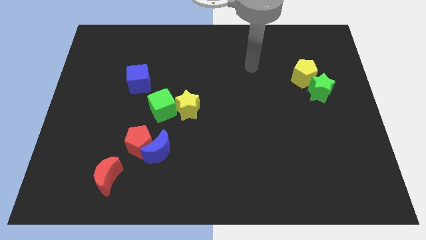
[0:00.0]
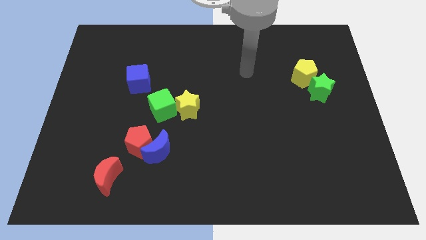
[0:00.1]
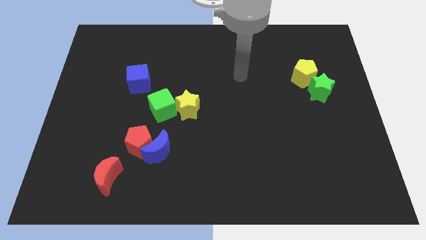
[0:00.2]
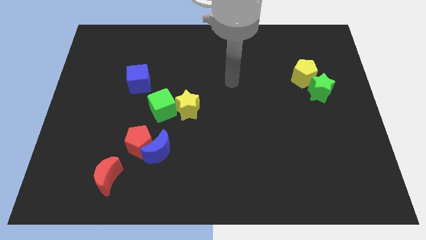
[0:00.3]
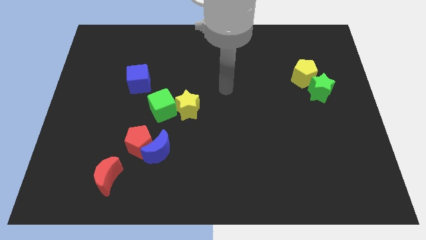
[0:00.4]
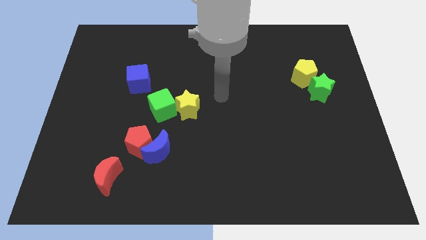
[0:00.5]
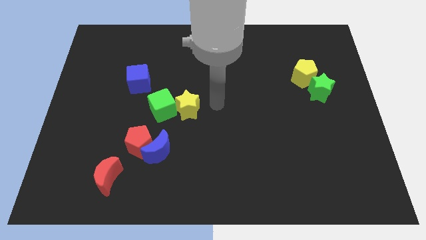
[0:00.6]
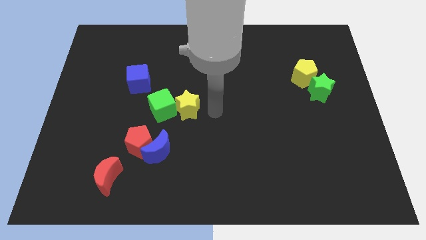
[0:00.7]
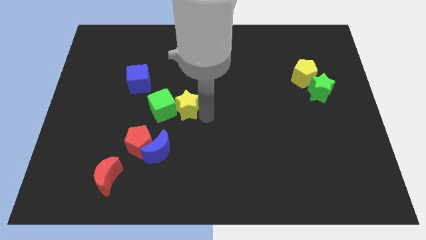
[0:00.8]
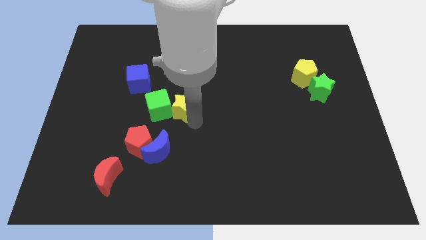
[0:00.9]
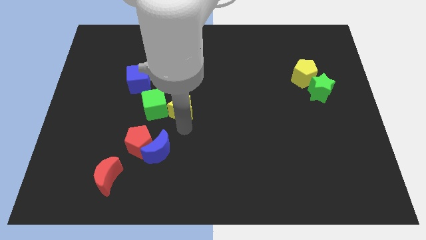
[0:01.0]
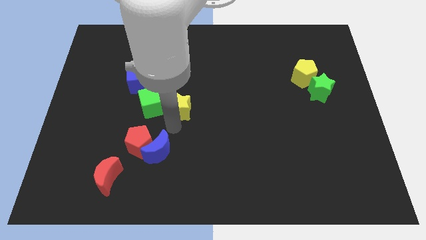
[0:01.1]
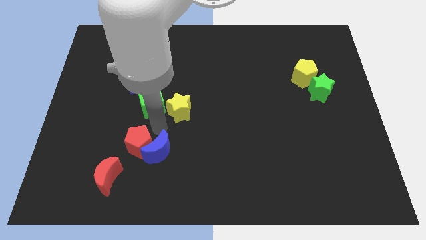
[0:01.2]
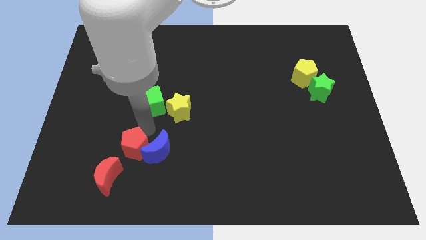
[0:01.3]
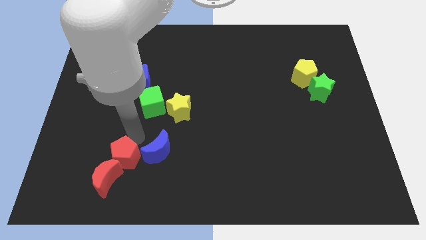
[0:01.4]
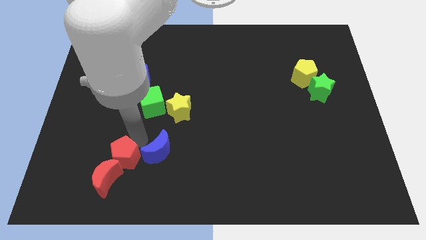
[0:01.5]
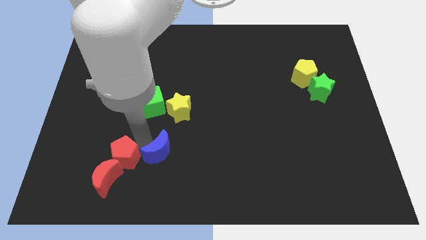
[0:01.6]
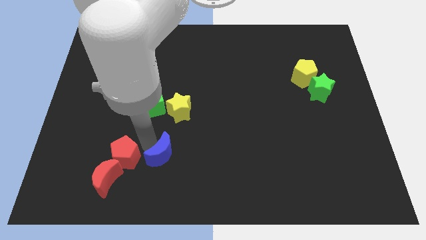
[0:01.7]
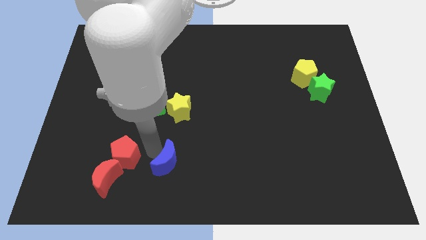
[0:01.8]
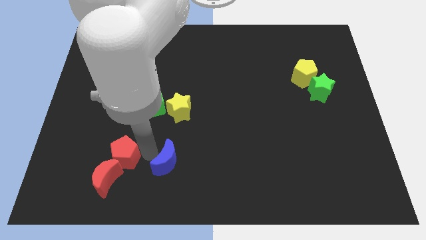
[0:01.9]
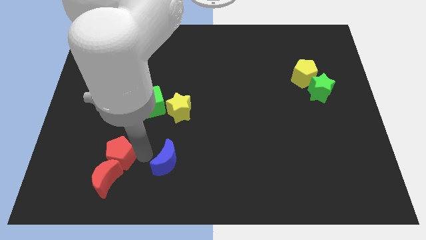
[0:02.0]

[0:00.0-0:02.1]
separate the blue moon from the red pentagon

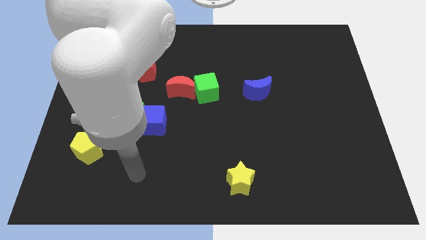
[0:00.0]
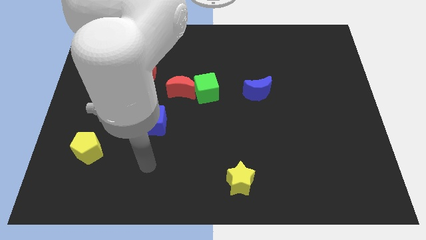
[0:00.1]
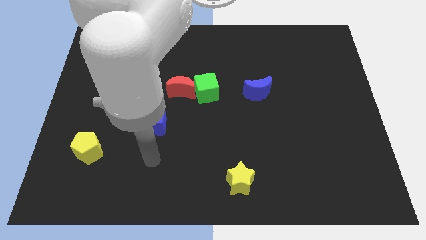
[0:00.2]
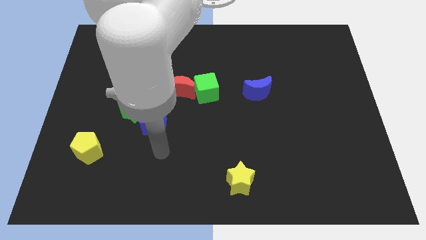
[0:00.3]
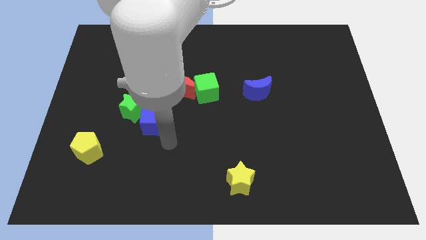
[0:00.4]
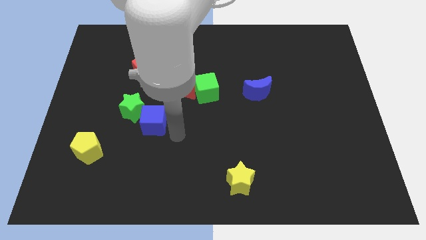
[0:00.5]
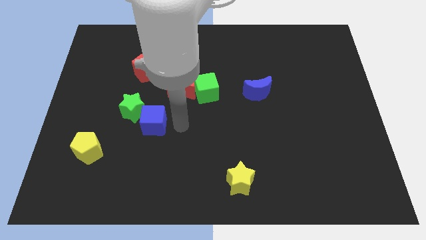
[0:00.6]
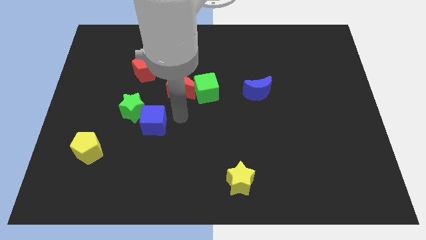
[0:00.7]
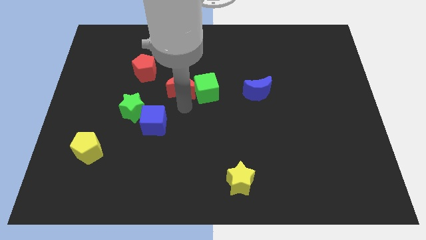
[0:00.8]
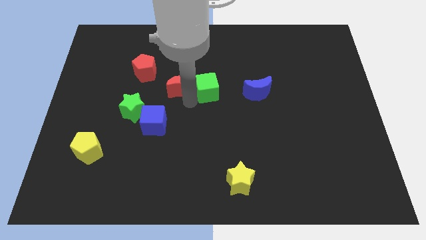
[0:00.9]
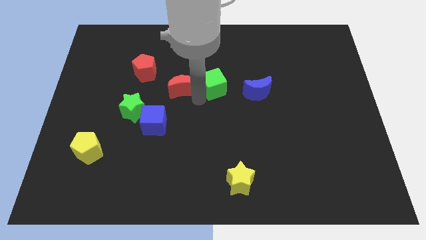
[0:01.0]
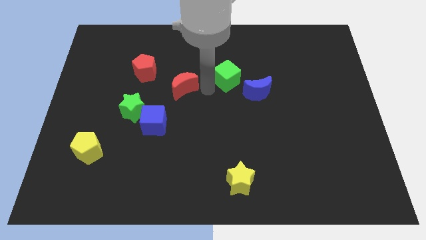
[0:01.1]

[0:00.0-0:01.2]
pull the red moon apart from the green cube

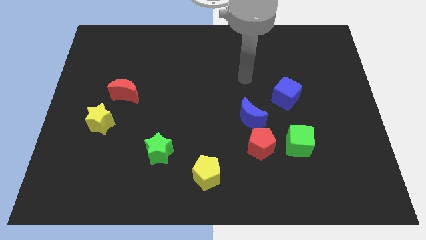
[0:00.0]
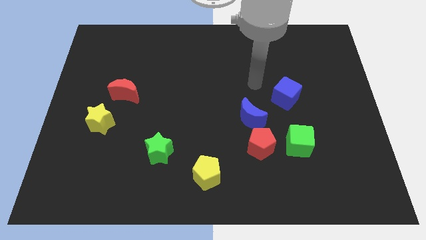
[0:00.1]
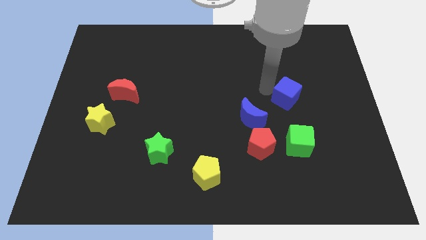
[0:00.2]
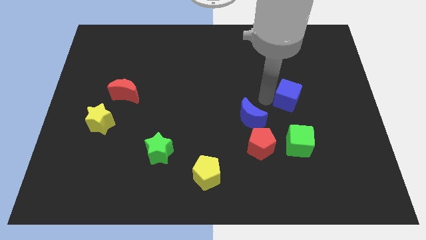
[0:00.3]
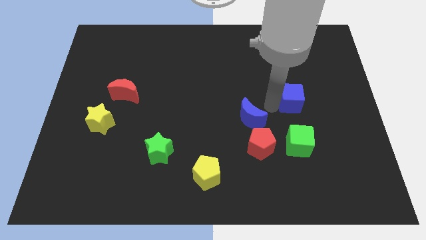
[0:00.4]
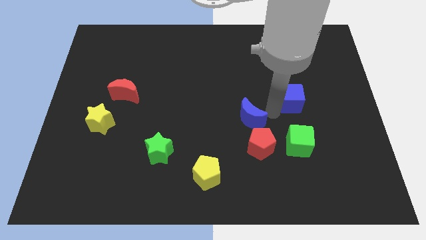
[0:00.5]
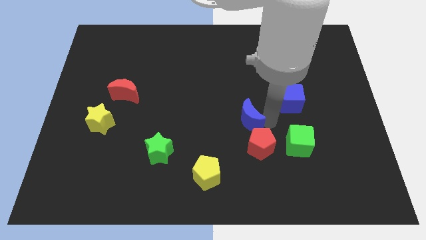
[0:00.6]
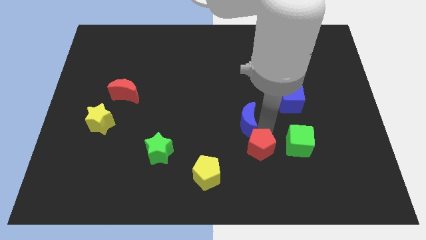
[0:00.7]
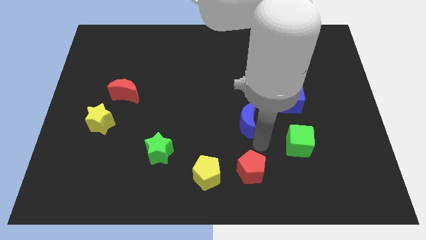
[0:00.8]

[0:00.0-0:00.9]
move the blue moon away from the red pentagon

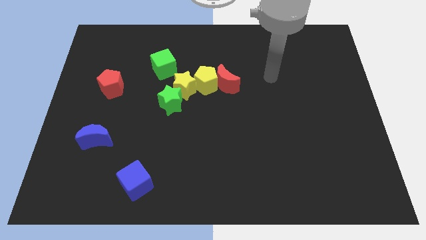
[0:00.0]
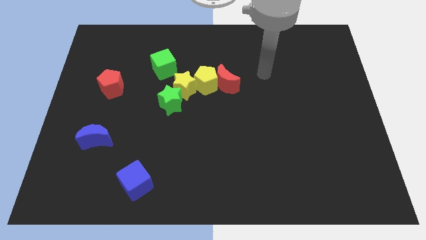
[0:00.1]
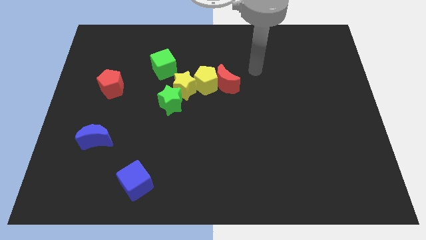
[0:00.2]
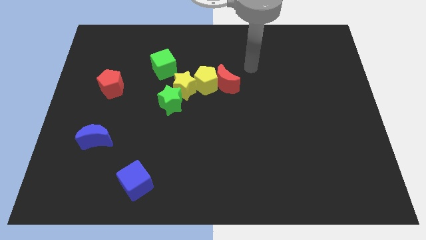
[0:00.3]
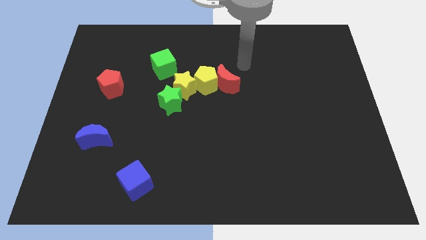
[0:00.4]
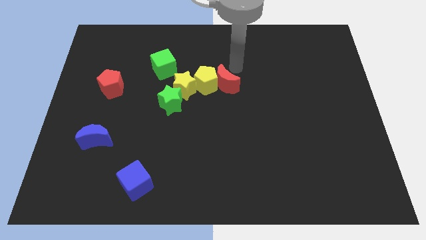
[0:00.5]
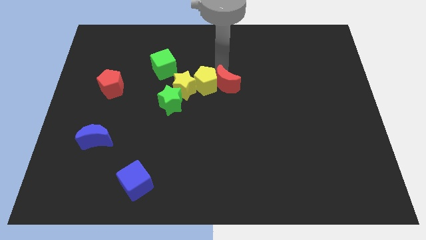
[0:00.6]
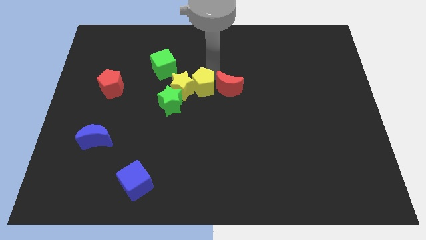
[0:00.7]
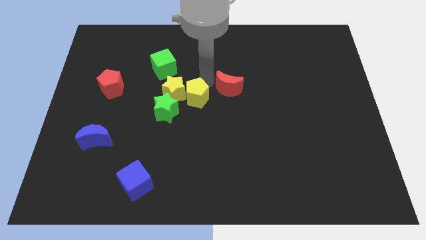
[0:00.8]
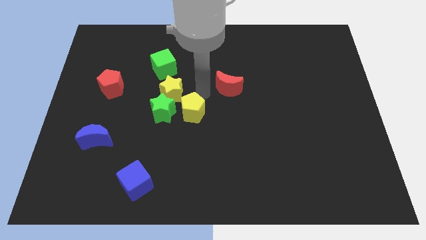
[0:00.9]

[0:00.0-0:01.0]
pull the red moon apart from the yellow pentagon

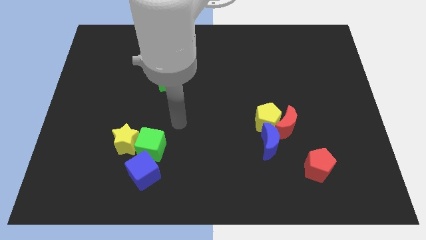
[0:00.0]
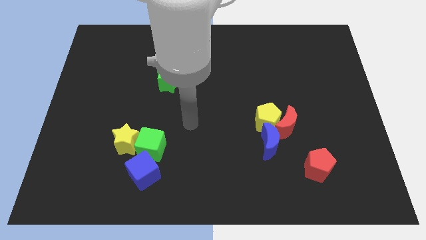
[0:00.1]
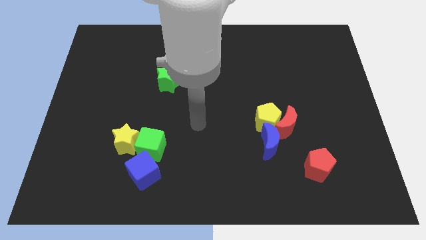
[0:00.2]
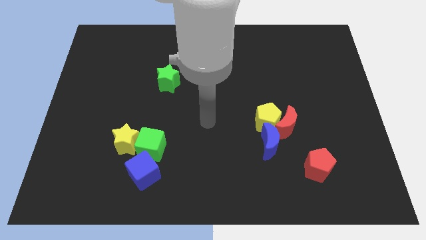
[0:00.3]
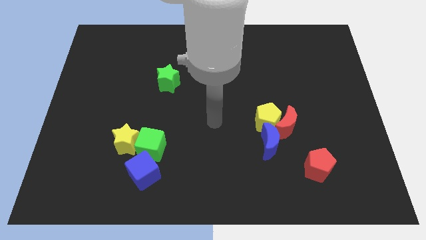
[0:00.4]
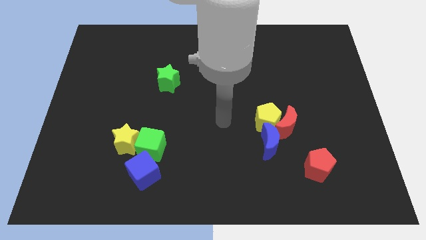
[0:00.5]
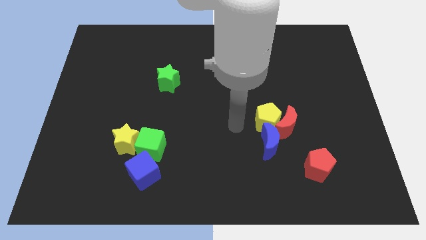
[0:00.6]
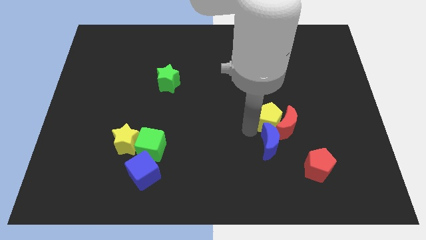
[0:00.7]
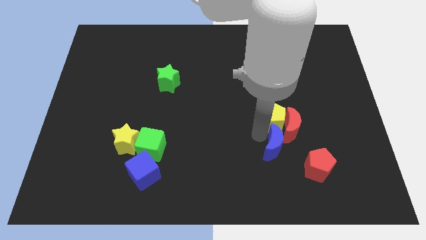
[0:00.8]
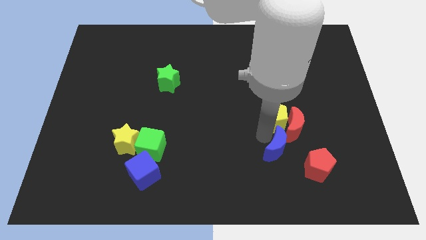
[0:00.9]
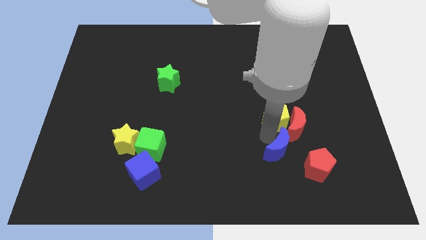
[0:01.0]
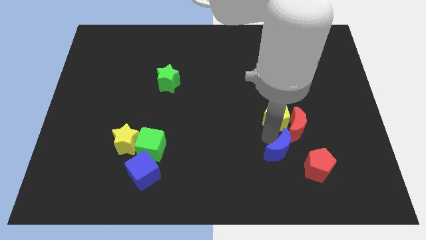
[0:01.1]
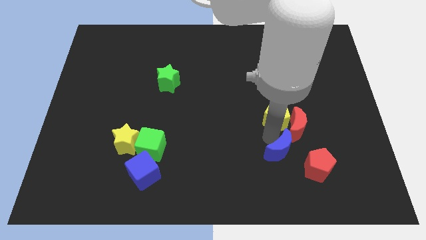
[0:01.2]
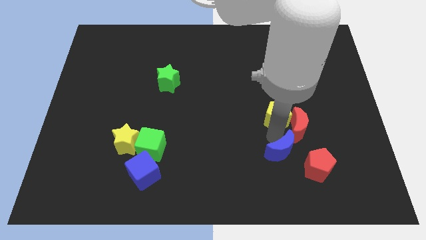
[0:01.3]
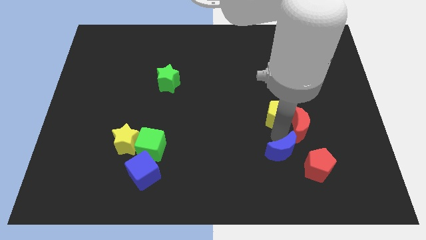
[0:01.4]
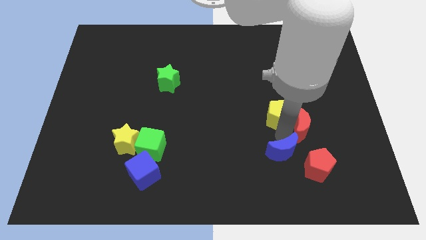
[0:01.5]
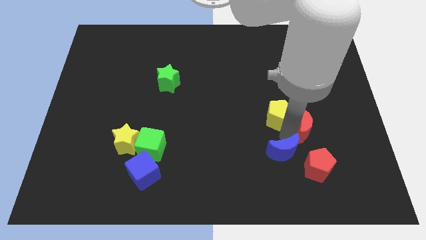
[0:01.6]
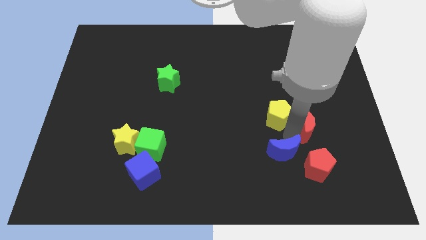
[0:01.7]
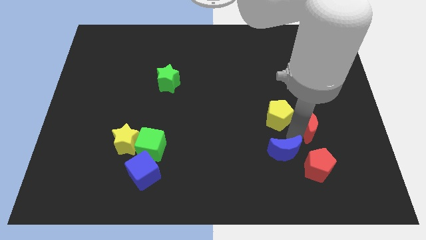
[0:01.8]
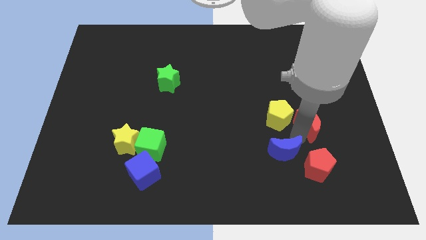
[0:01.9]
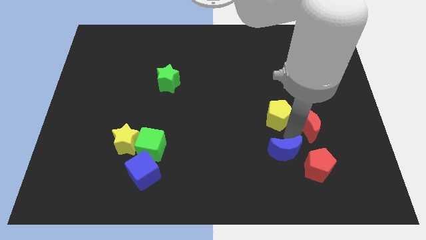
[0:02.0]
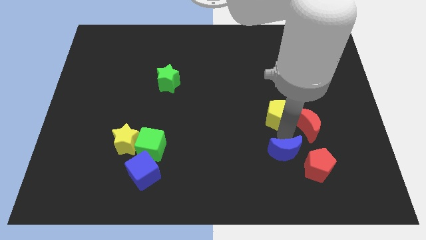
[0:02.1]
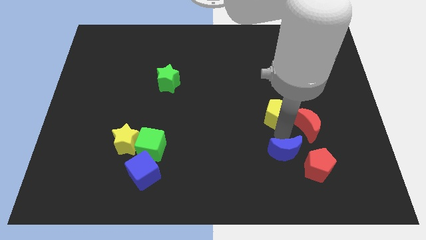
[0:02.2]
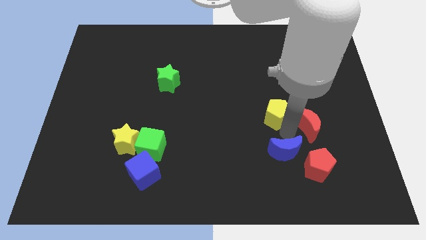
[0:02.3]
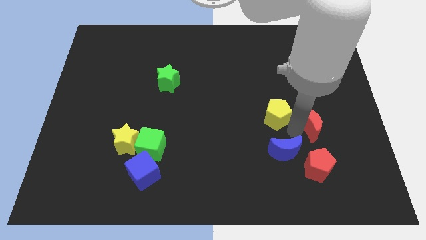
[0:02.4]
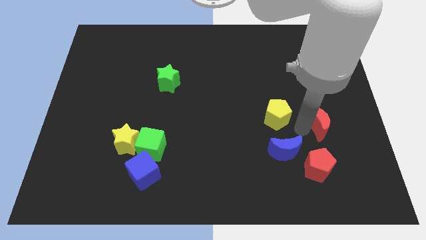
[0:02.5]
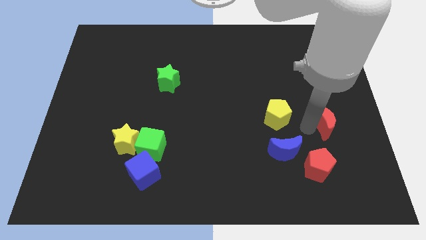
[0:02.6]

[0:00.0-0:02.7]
move the red moon away from the yellow pentagon and blue moon

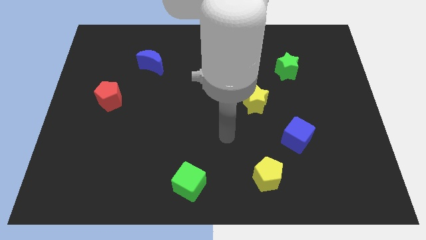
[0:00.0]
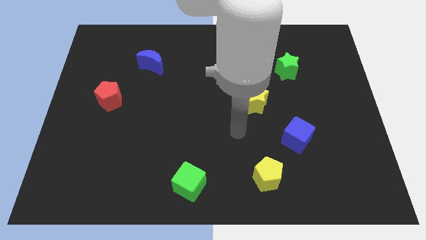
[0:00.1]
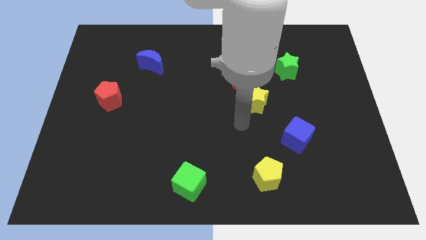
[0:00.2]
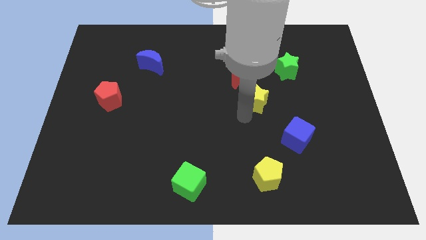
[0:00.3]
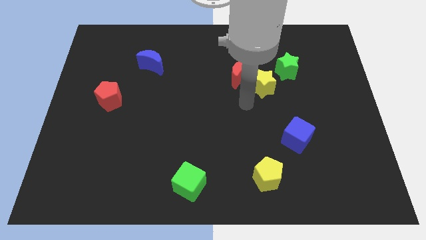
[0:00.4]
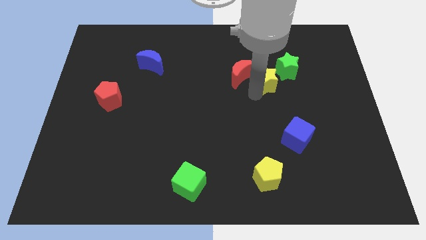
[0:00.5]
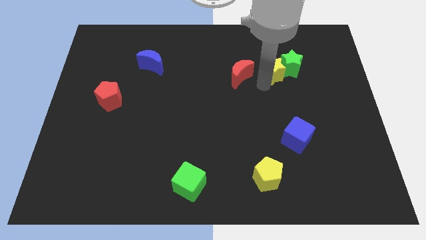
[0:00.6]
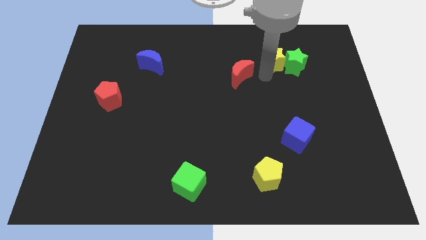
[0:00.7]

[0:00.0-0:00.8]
move the red moon away from the yellow star

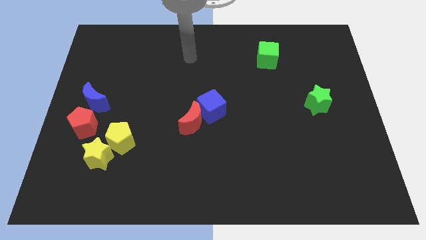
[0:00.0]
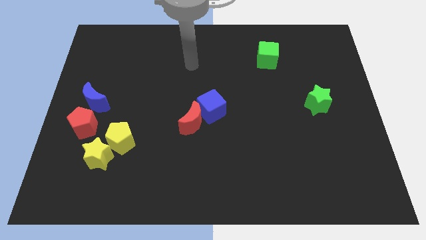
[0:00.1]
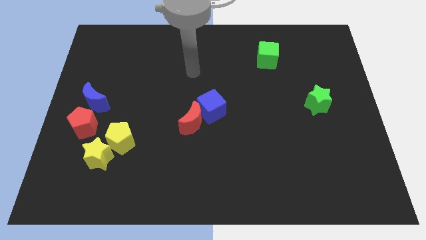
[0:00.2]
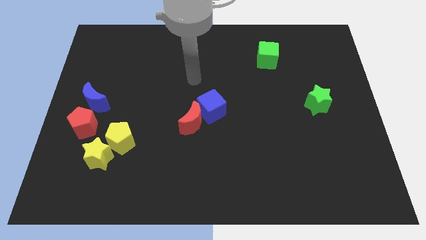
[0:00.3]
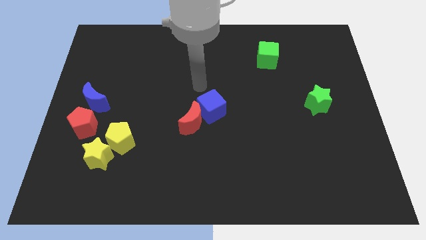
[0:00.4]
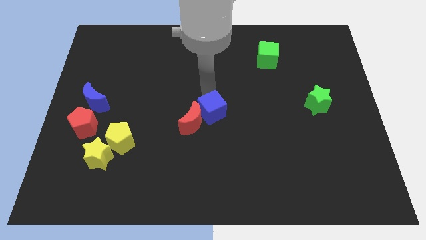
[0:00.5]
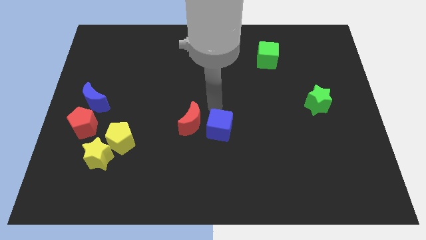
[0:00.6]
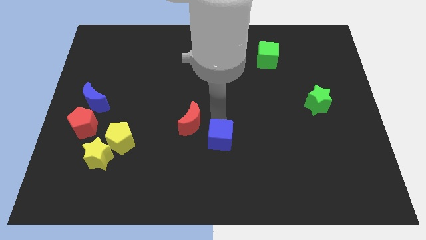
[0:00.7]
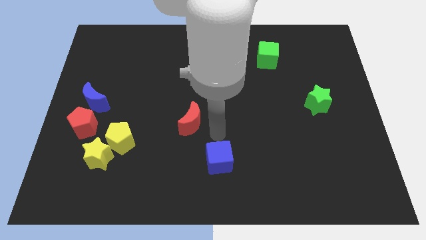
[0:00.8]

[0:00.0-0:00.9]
move the red moon away from the blue cube
